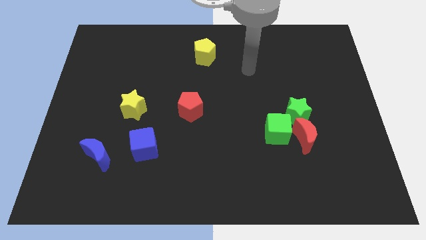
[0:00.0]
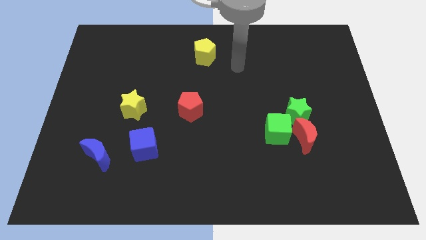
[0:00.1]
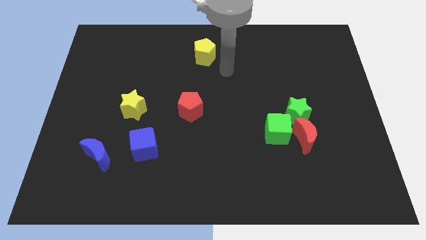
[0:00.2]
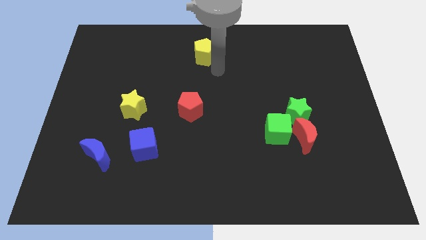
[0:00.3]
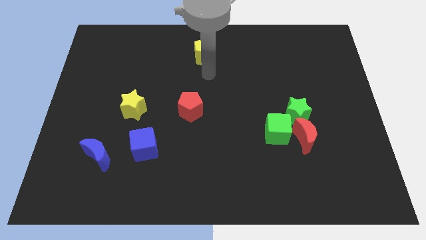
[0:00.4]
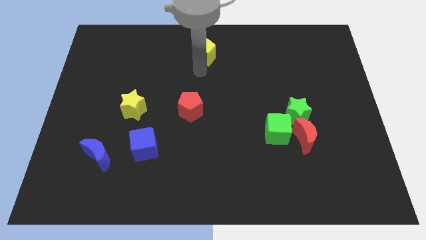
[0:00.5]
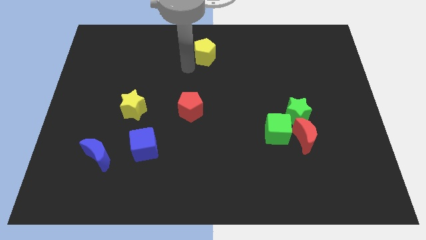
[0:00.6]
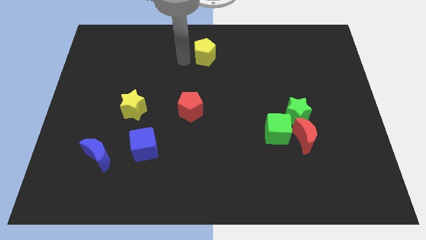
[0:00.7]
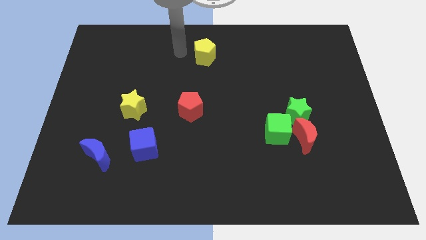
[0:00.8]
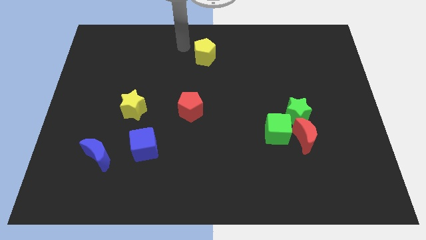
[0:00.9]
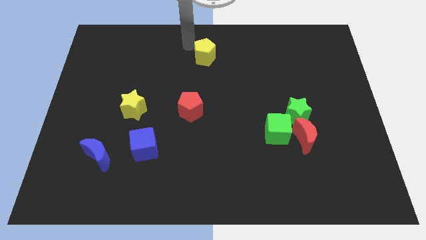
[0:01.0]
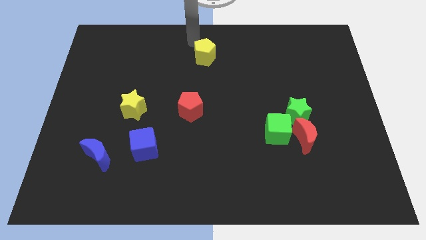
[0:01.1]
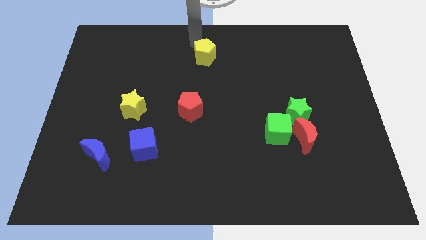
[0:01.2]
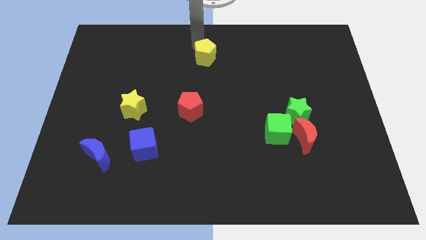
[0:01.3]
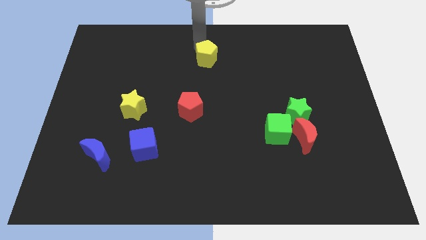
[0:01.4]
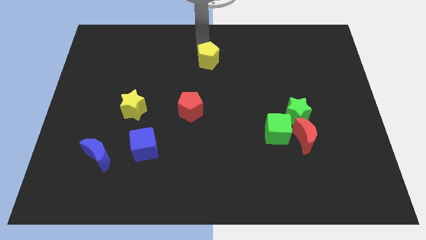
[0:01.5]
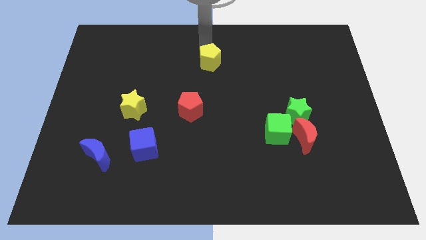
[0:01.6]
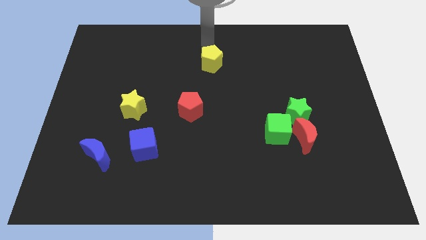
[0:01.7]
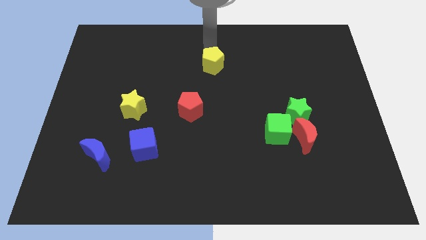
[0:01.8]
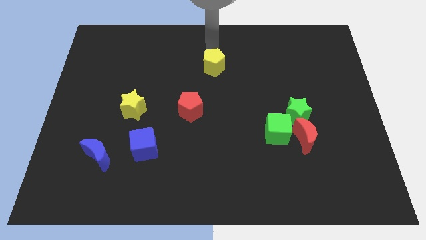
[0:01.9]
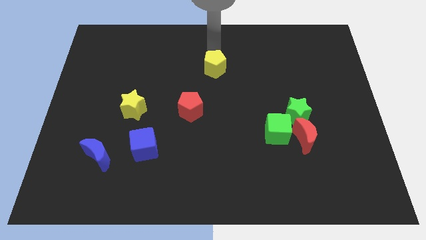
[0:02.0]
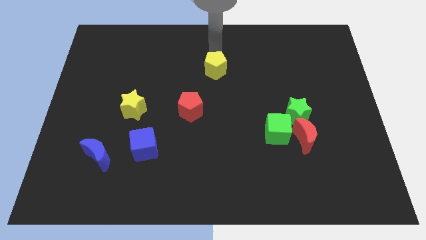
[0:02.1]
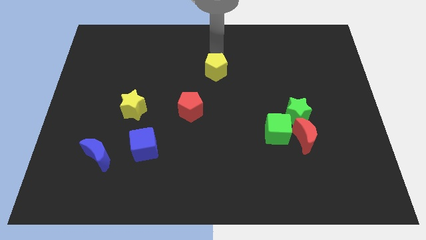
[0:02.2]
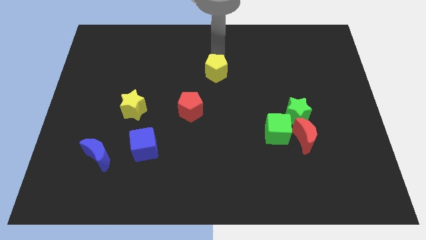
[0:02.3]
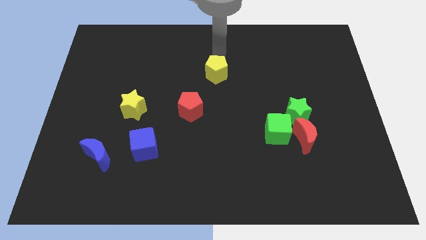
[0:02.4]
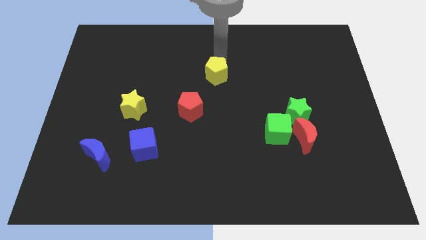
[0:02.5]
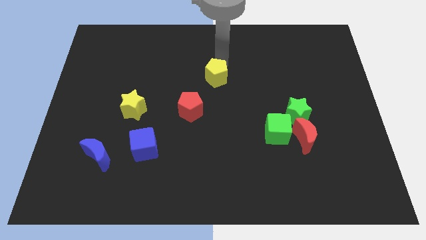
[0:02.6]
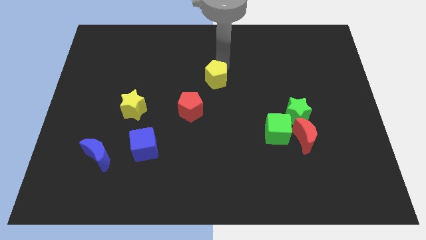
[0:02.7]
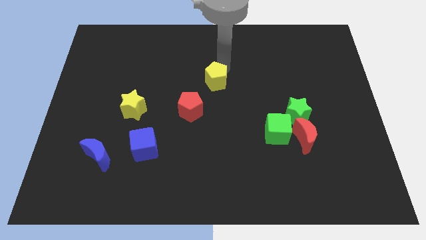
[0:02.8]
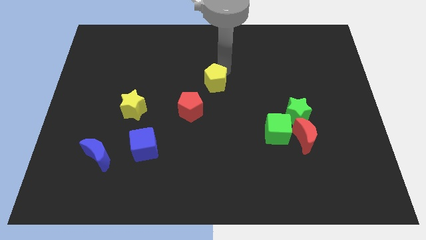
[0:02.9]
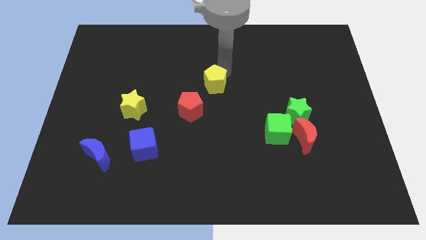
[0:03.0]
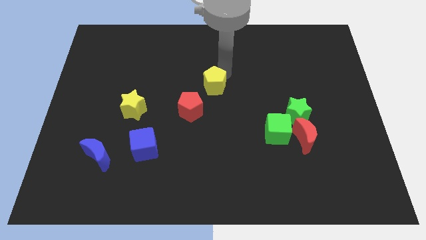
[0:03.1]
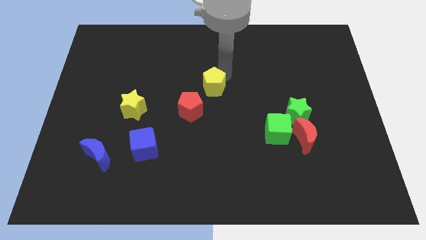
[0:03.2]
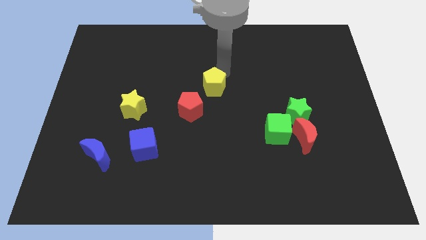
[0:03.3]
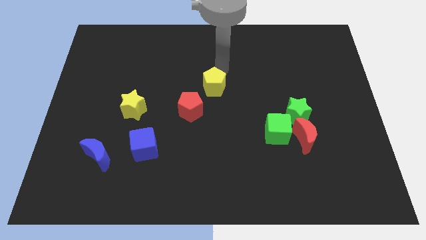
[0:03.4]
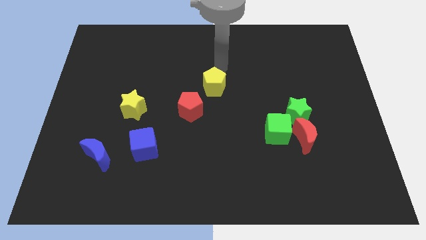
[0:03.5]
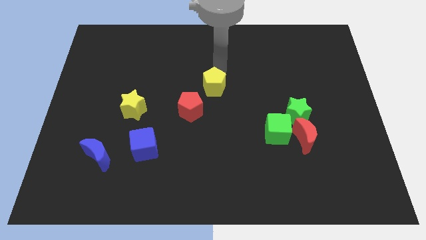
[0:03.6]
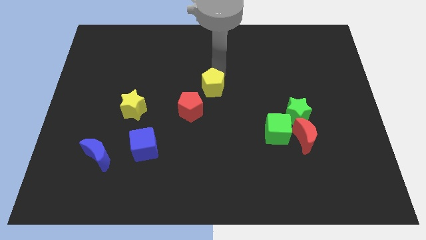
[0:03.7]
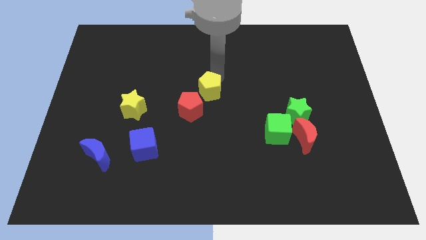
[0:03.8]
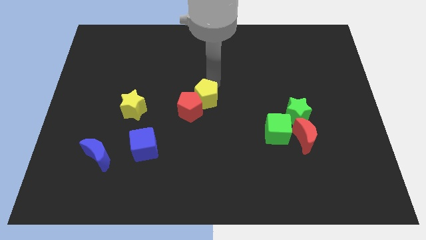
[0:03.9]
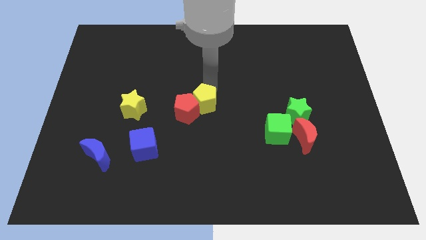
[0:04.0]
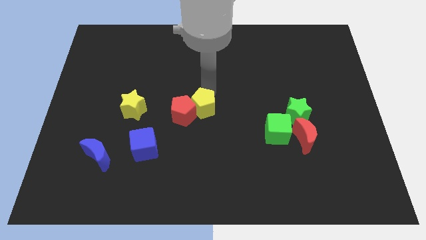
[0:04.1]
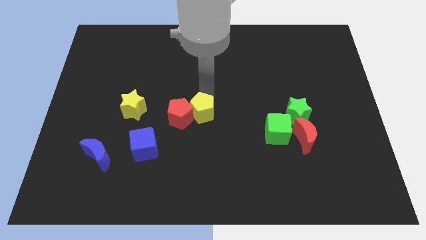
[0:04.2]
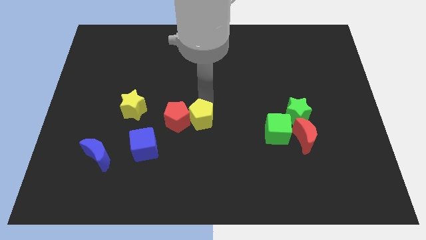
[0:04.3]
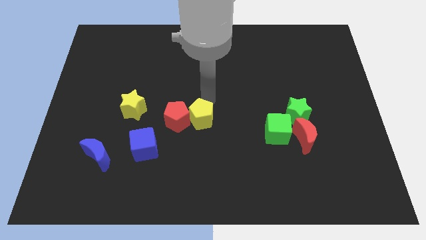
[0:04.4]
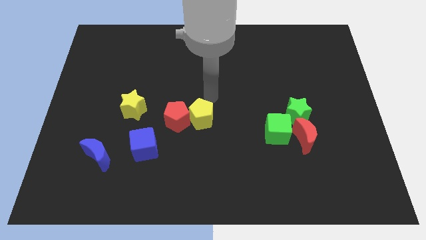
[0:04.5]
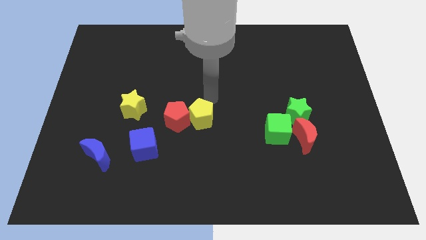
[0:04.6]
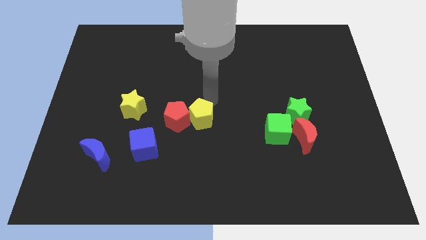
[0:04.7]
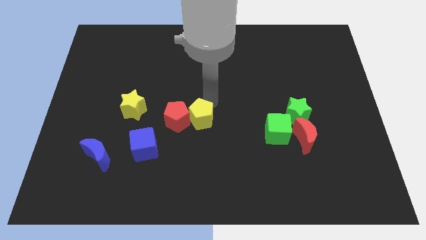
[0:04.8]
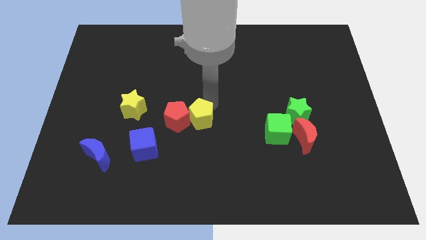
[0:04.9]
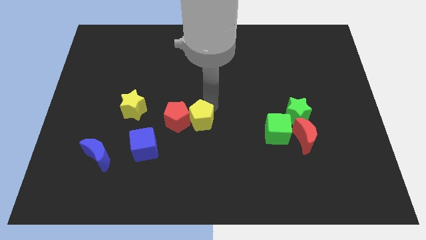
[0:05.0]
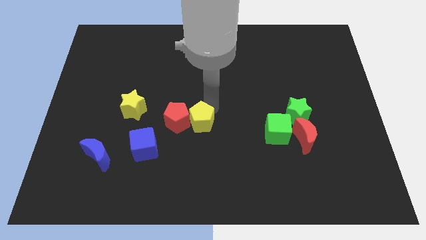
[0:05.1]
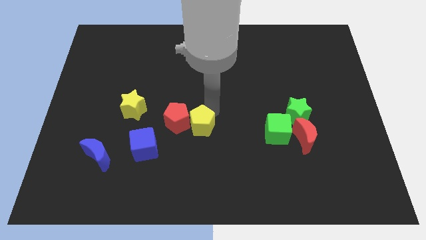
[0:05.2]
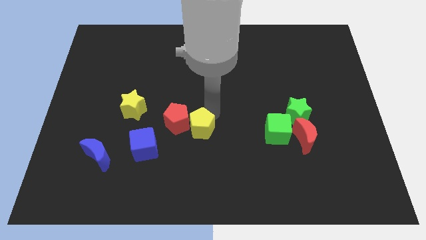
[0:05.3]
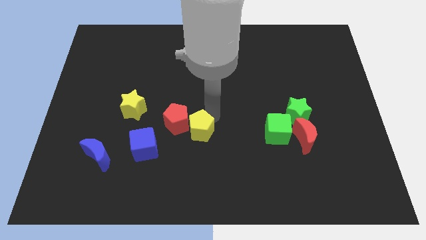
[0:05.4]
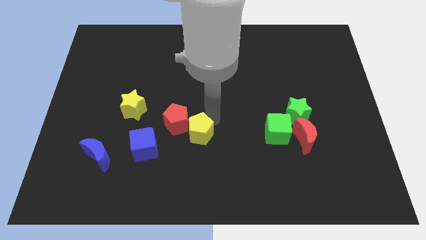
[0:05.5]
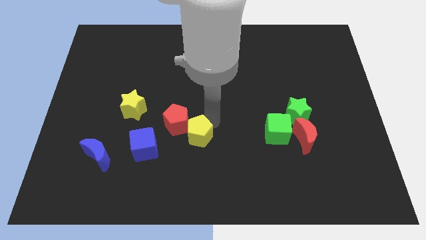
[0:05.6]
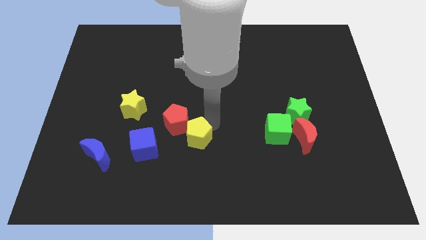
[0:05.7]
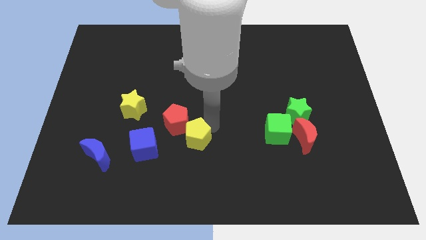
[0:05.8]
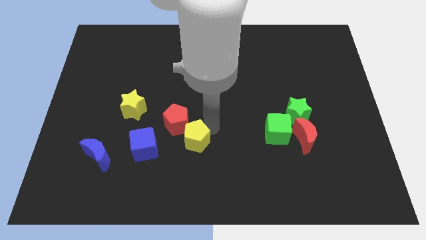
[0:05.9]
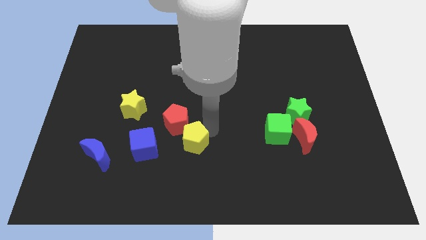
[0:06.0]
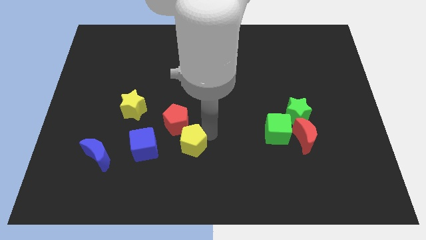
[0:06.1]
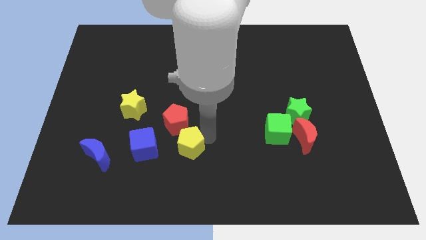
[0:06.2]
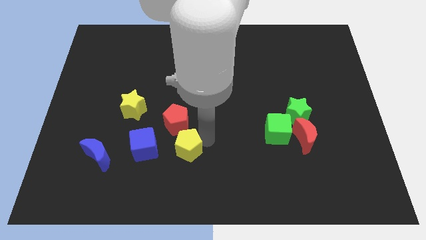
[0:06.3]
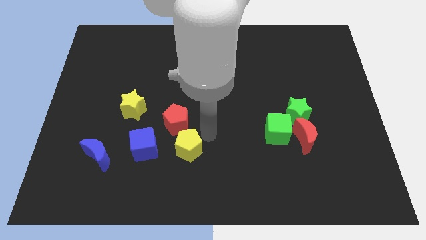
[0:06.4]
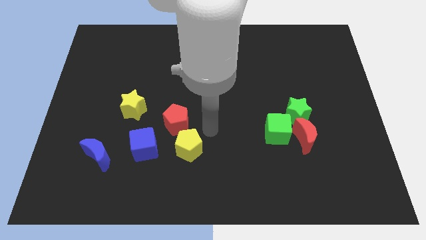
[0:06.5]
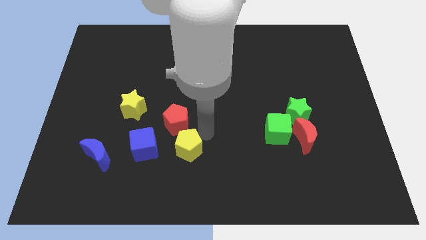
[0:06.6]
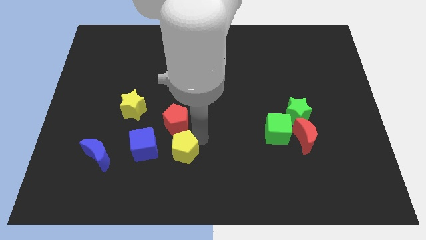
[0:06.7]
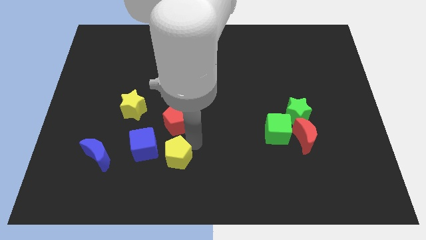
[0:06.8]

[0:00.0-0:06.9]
push the yellow pentagon to the bottom right of the blue cube

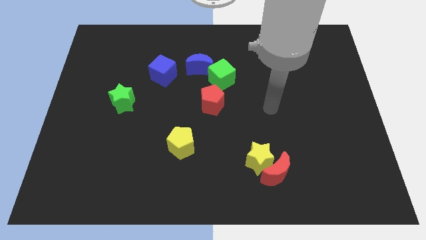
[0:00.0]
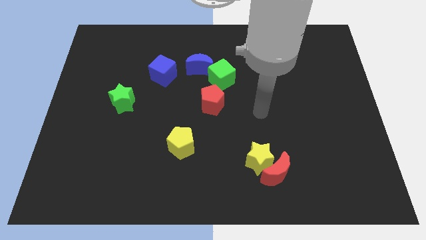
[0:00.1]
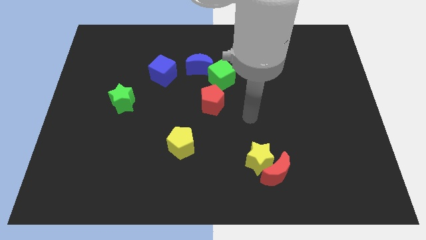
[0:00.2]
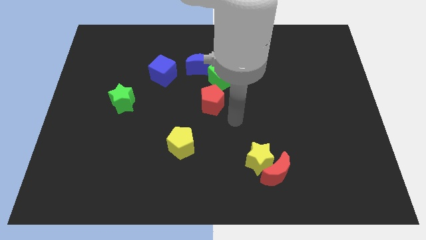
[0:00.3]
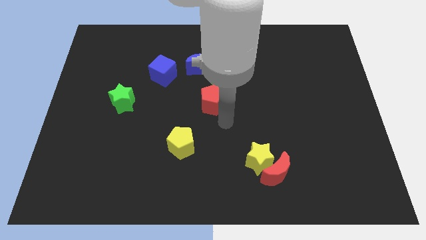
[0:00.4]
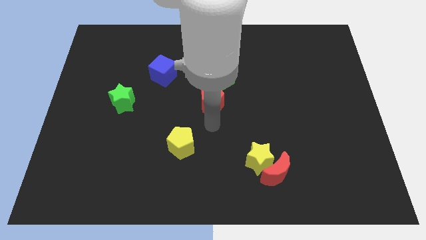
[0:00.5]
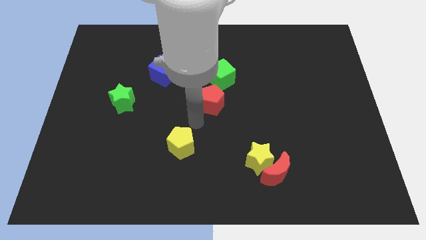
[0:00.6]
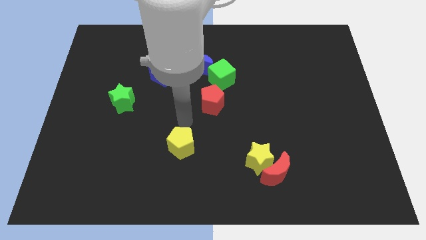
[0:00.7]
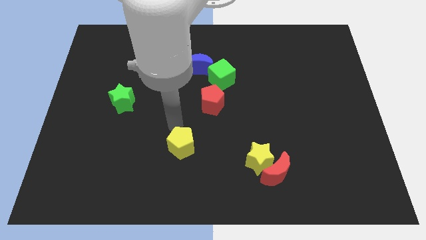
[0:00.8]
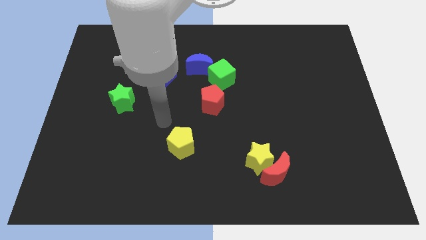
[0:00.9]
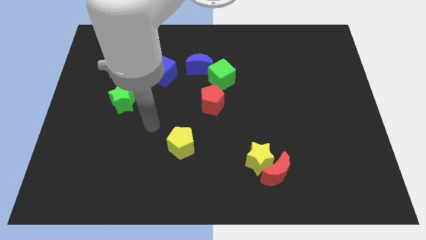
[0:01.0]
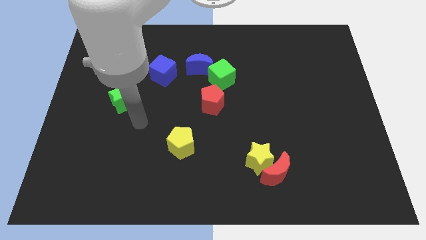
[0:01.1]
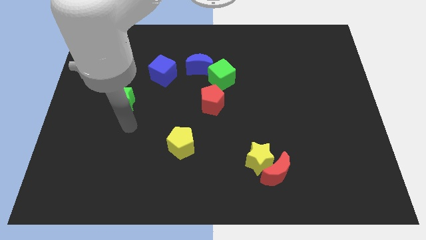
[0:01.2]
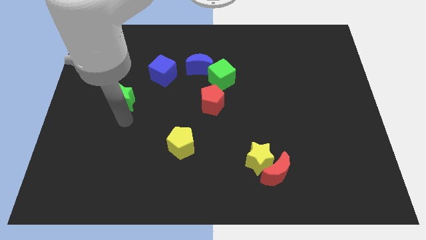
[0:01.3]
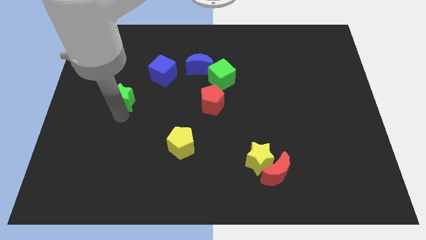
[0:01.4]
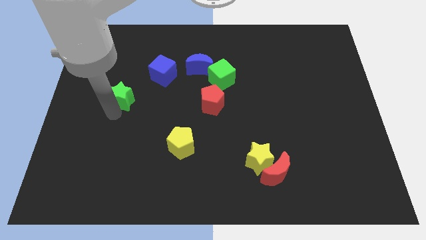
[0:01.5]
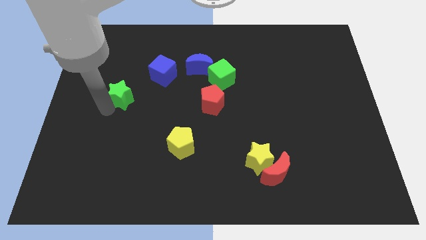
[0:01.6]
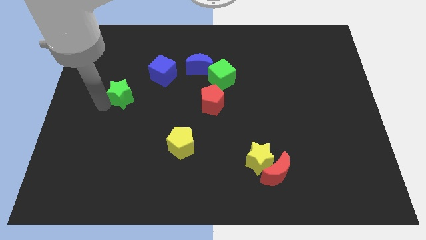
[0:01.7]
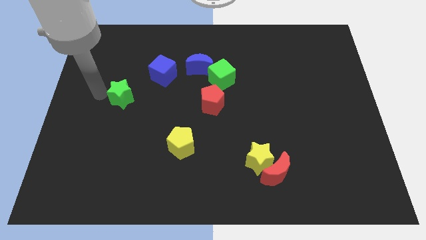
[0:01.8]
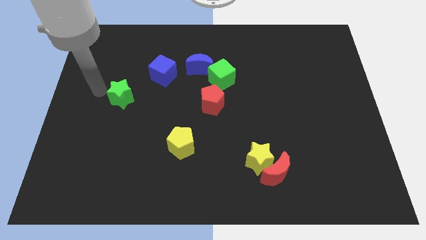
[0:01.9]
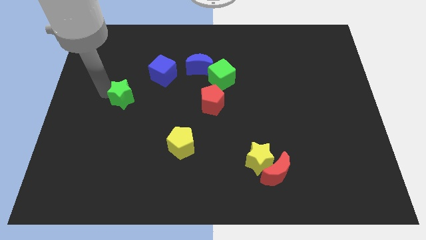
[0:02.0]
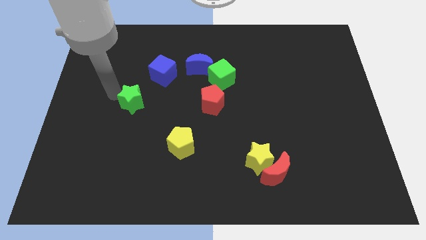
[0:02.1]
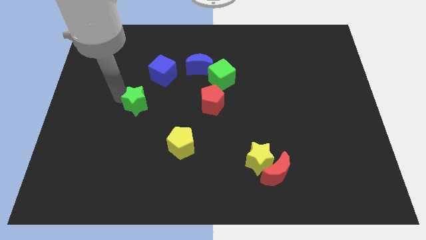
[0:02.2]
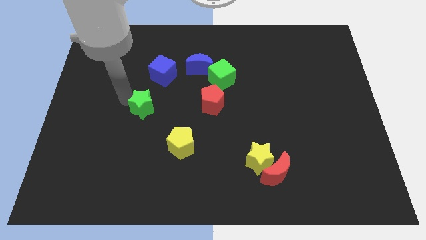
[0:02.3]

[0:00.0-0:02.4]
move the green star below the blue cube
